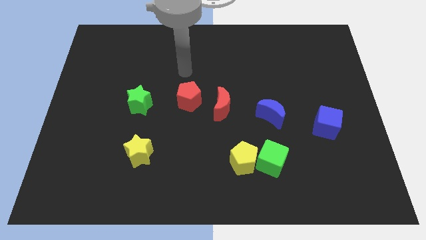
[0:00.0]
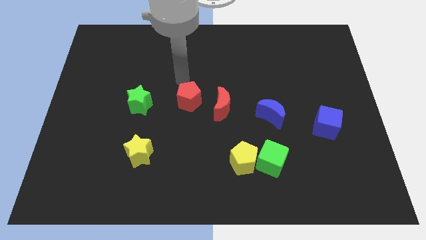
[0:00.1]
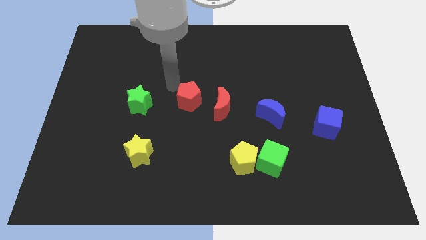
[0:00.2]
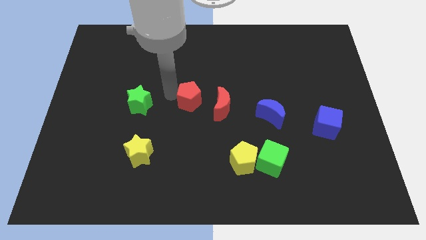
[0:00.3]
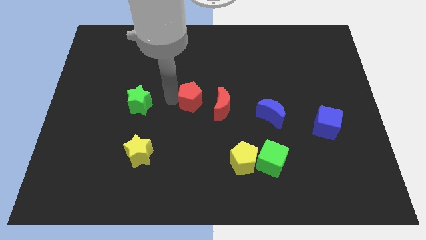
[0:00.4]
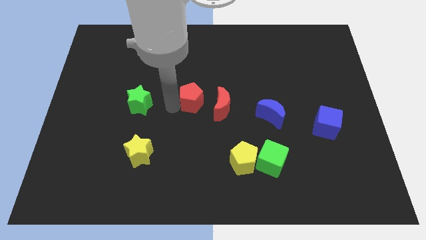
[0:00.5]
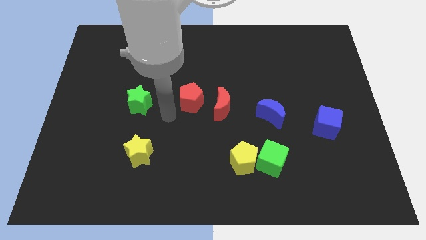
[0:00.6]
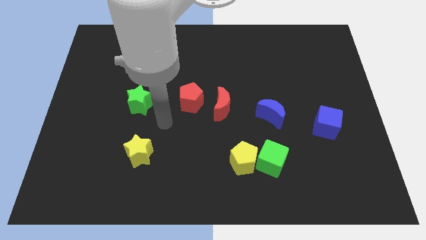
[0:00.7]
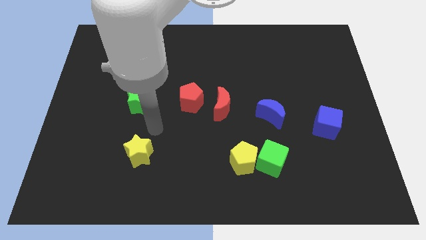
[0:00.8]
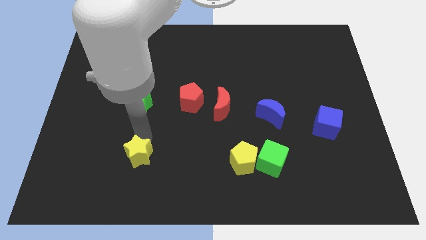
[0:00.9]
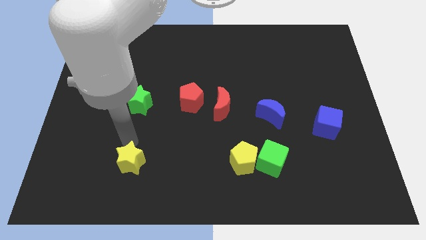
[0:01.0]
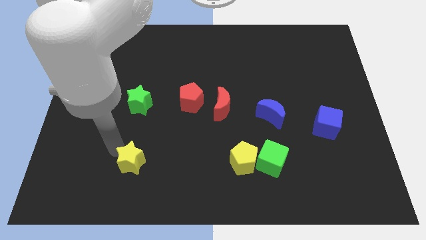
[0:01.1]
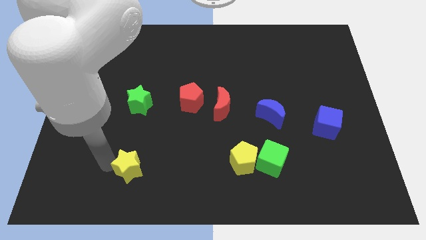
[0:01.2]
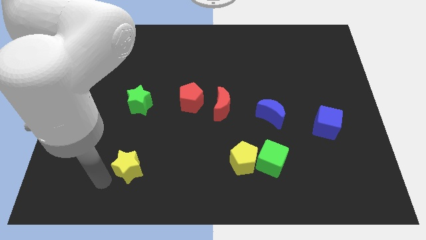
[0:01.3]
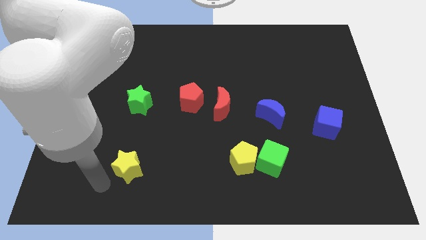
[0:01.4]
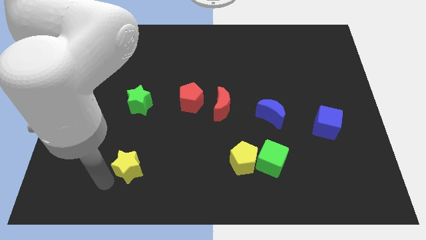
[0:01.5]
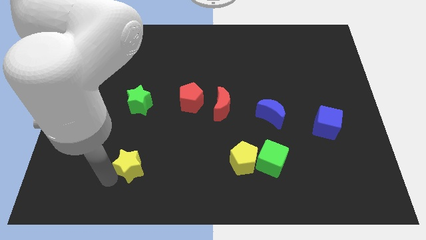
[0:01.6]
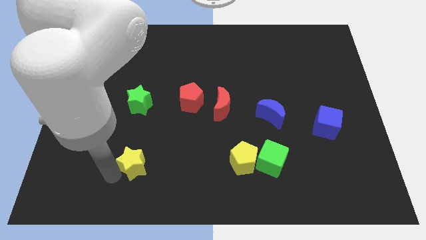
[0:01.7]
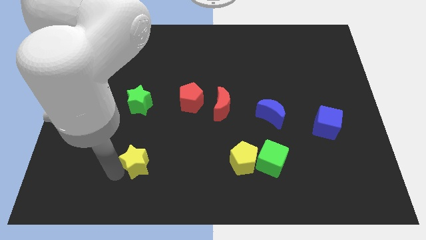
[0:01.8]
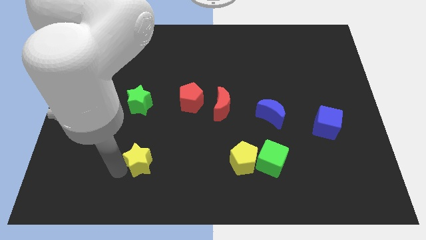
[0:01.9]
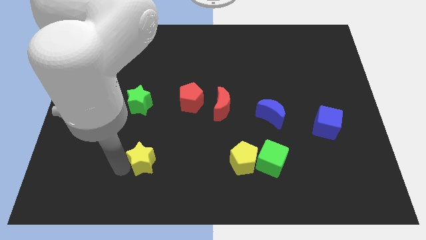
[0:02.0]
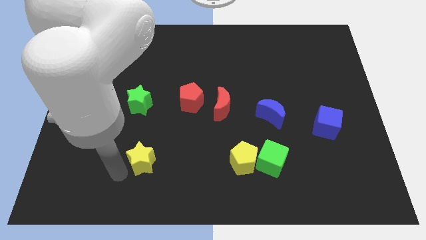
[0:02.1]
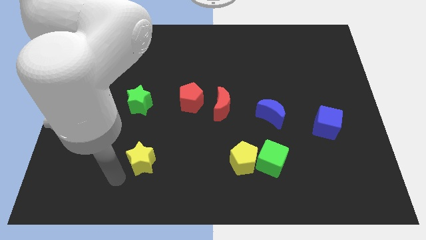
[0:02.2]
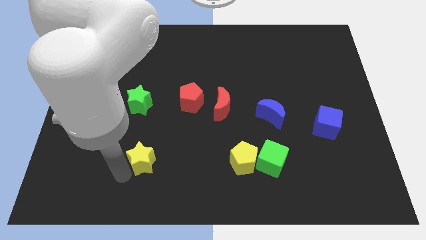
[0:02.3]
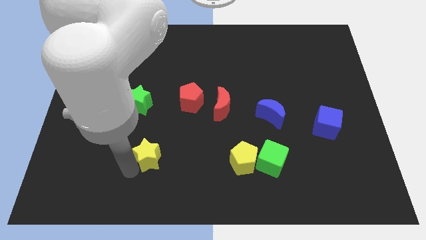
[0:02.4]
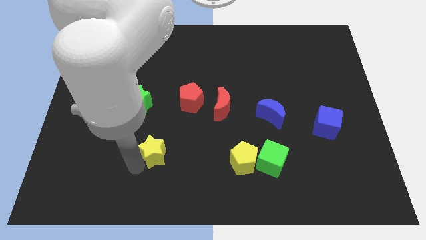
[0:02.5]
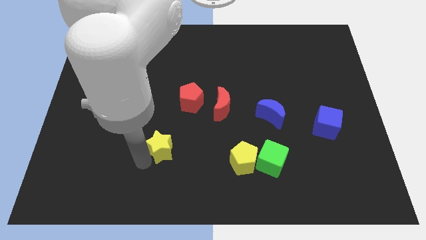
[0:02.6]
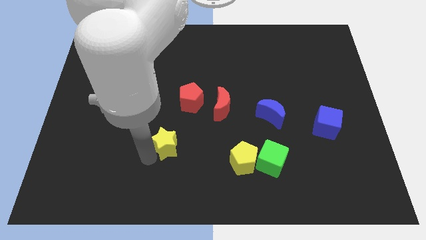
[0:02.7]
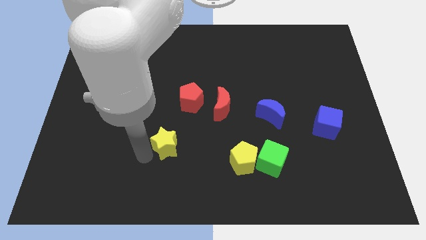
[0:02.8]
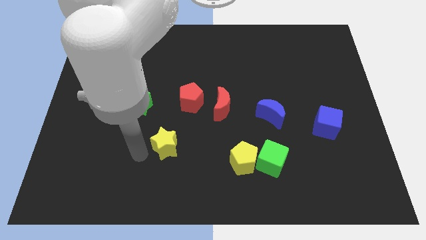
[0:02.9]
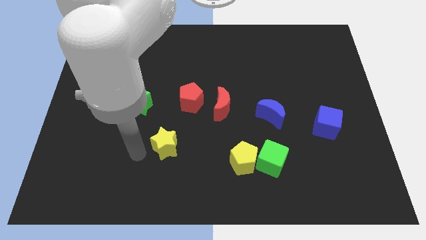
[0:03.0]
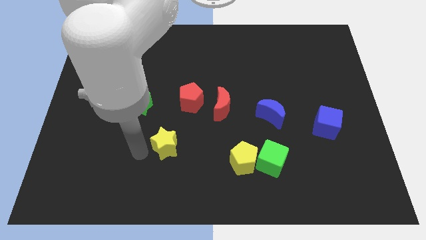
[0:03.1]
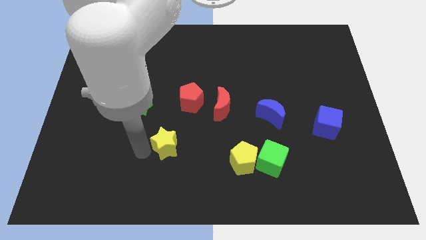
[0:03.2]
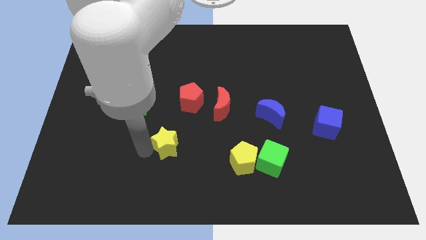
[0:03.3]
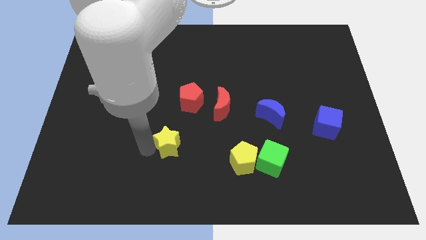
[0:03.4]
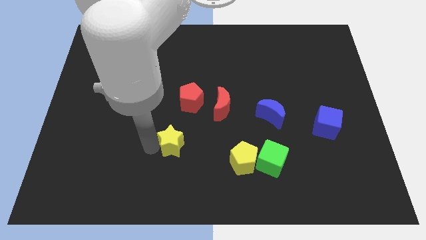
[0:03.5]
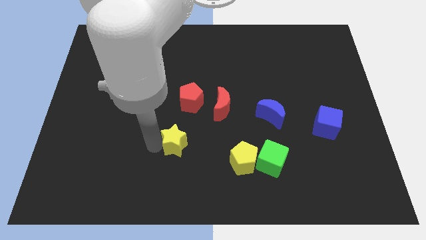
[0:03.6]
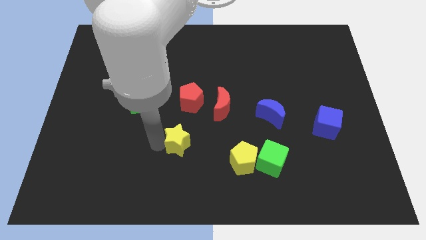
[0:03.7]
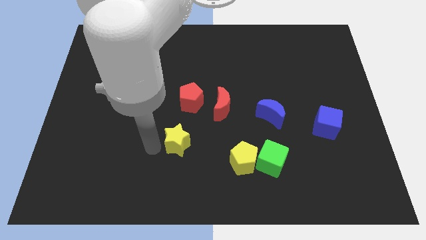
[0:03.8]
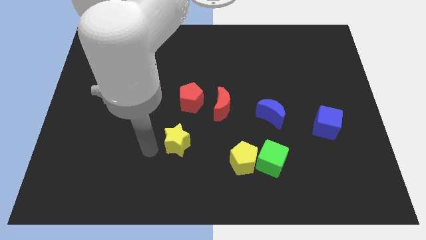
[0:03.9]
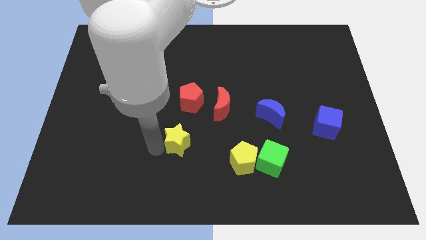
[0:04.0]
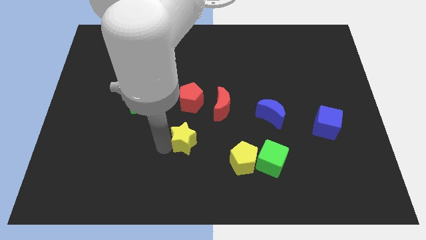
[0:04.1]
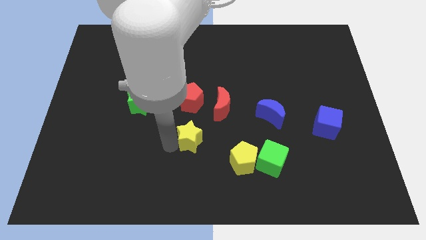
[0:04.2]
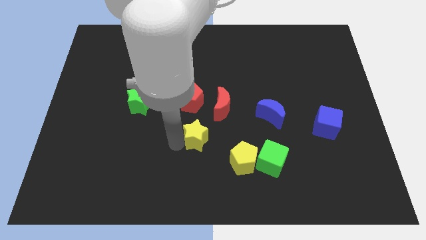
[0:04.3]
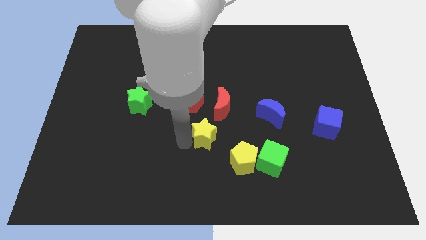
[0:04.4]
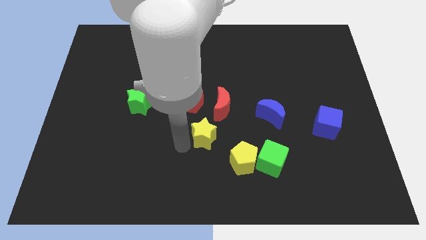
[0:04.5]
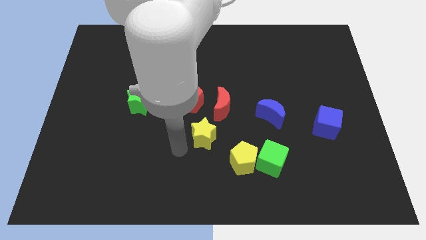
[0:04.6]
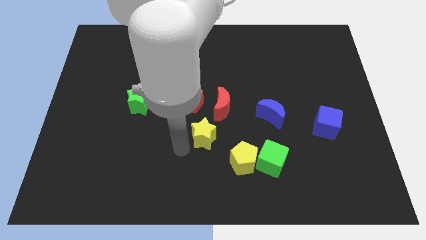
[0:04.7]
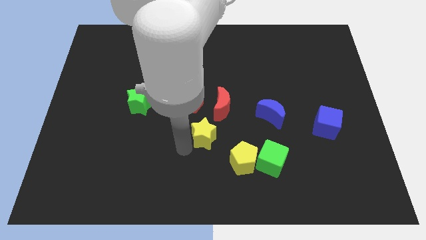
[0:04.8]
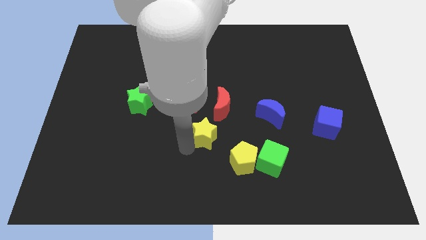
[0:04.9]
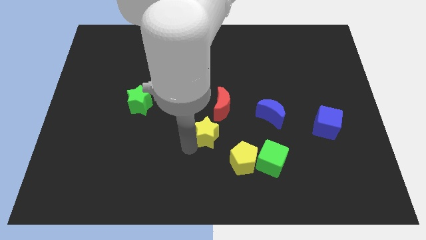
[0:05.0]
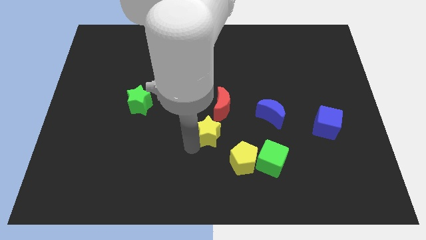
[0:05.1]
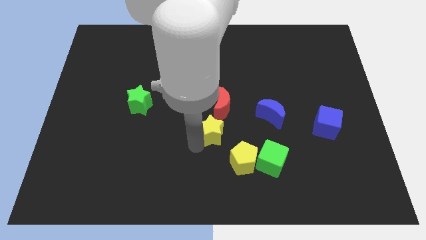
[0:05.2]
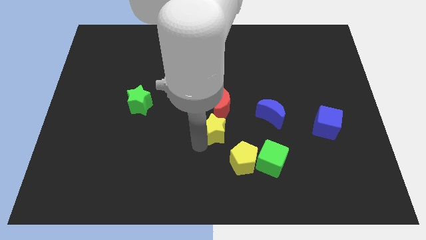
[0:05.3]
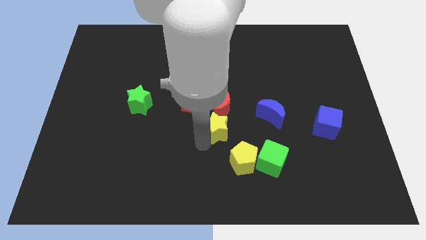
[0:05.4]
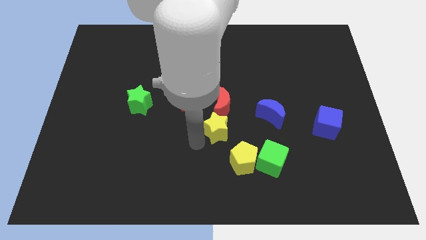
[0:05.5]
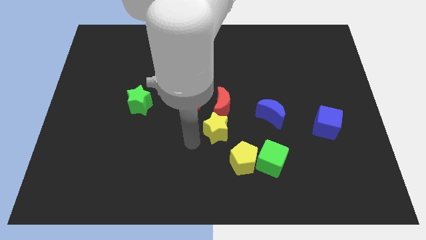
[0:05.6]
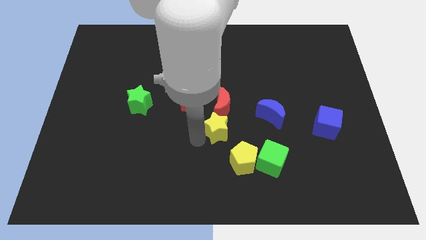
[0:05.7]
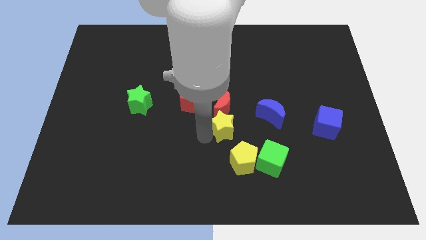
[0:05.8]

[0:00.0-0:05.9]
put the yellow star above the yellow pentagon

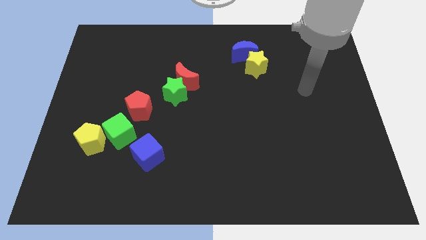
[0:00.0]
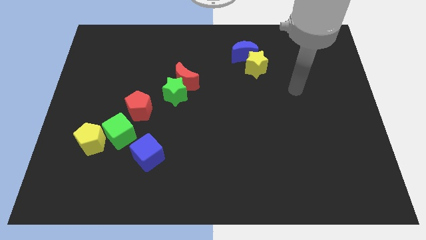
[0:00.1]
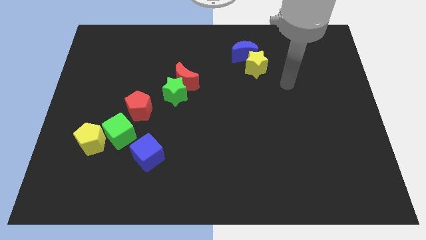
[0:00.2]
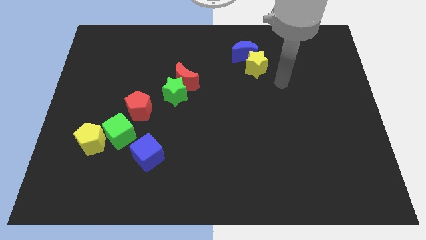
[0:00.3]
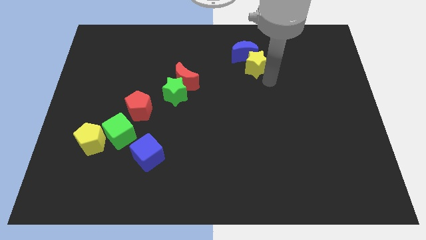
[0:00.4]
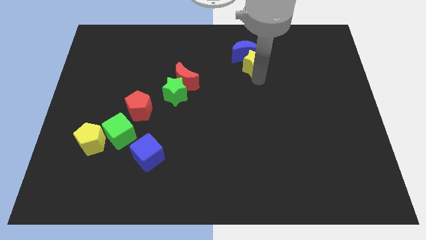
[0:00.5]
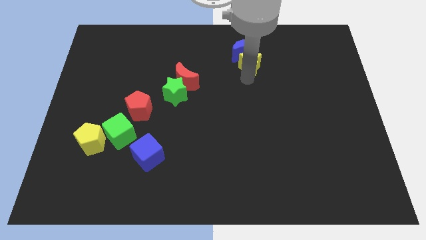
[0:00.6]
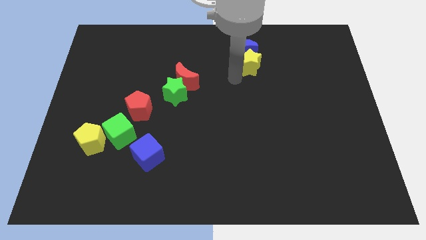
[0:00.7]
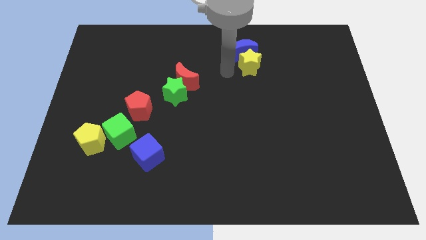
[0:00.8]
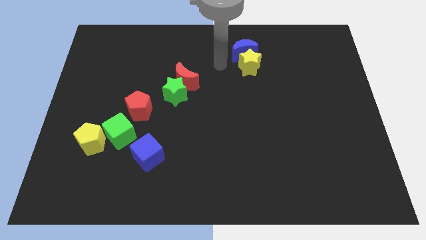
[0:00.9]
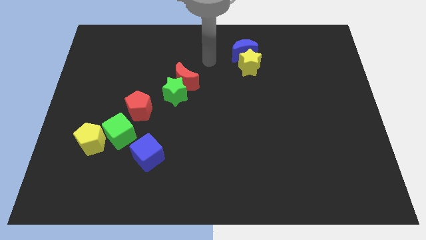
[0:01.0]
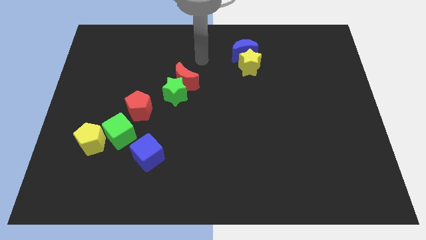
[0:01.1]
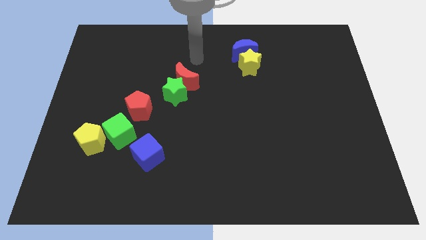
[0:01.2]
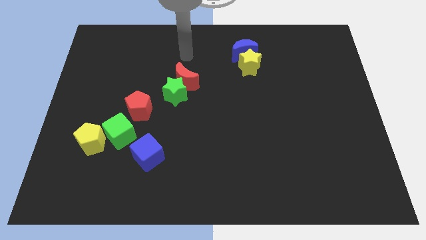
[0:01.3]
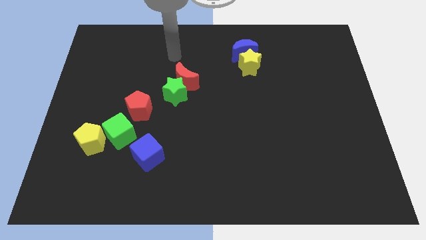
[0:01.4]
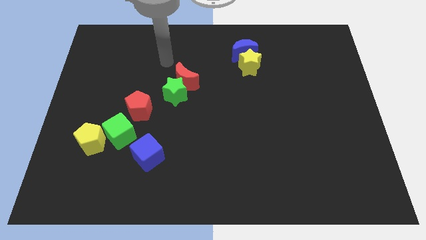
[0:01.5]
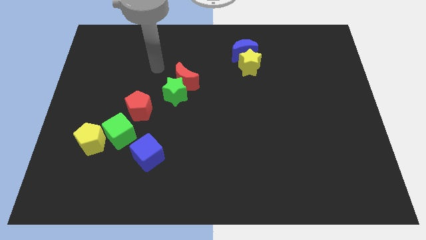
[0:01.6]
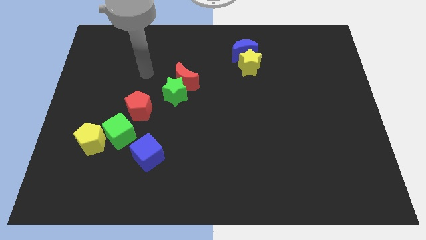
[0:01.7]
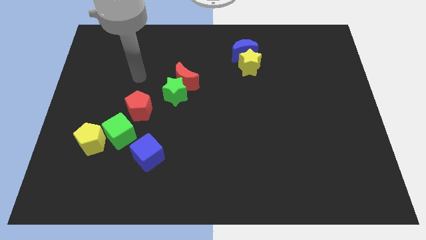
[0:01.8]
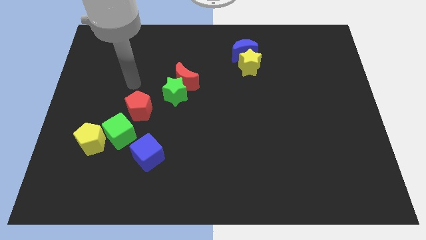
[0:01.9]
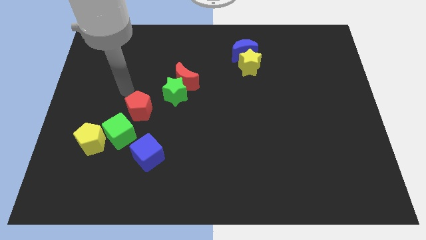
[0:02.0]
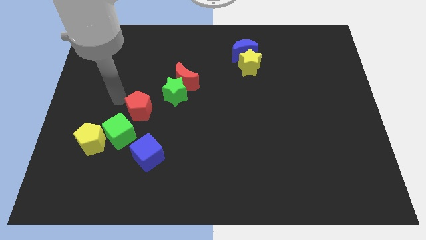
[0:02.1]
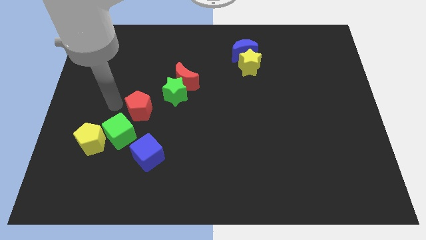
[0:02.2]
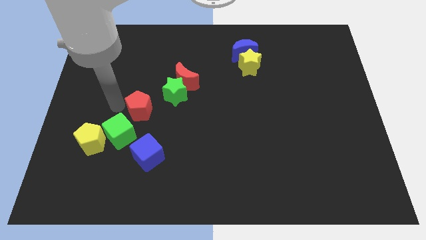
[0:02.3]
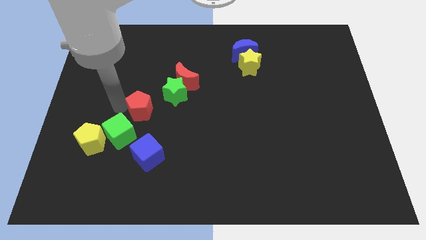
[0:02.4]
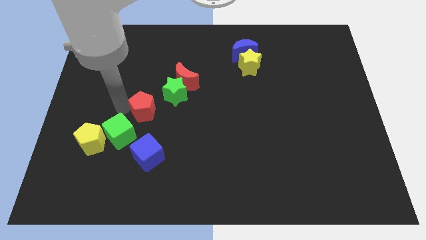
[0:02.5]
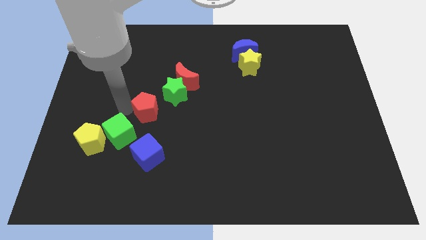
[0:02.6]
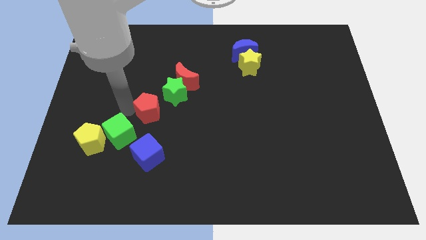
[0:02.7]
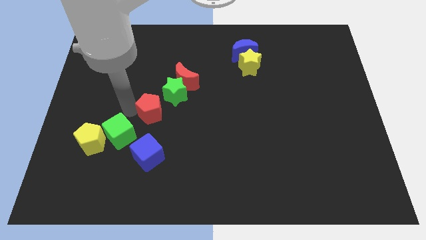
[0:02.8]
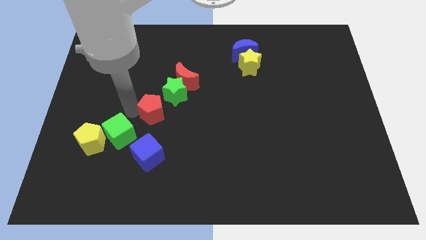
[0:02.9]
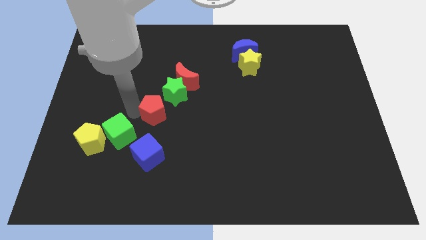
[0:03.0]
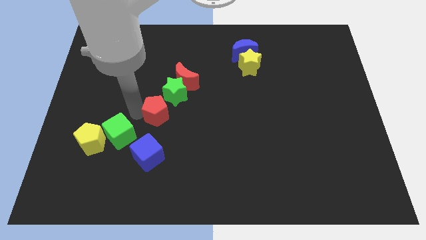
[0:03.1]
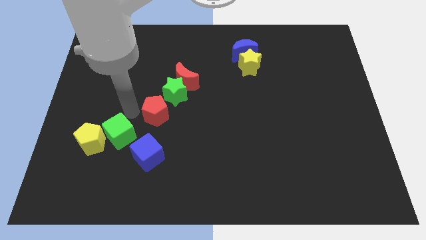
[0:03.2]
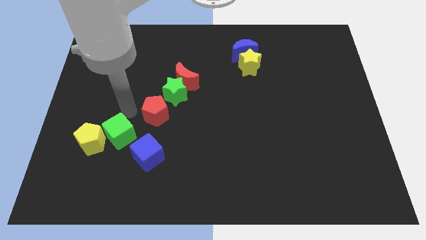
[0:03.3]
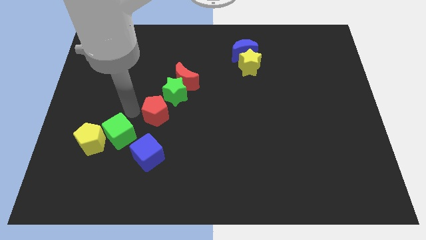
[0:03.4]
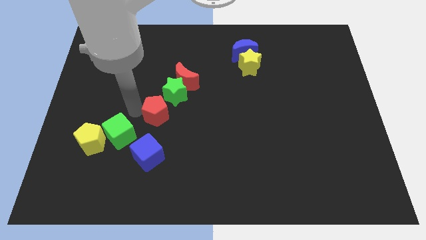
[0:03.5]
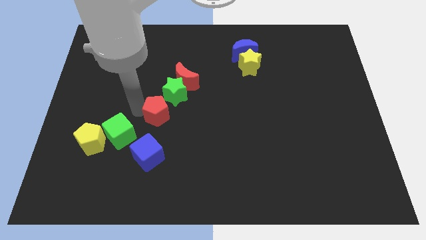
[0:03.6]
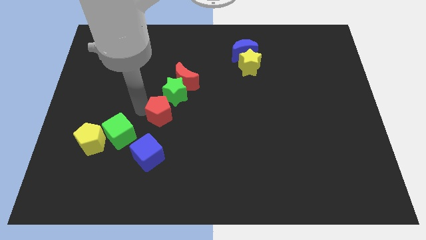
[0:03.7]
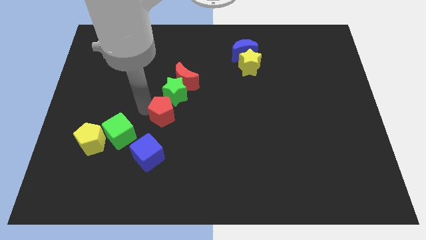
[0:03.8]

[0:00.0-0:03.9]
slide the red pentagon to the bottom of the red moon
